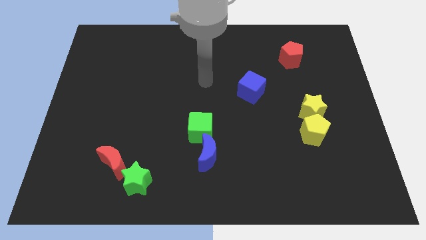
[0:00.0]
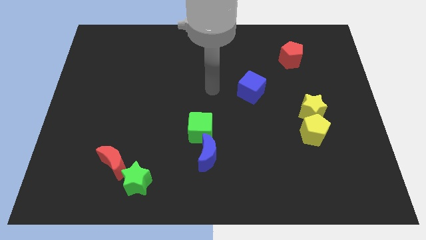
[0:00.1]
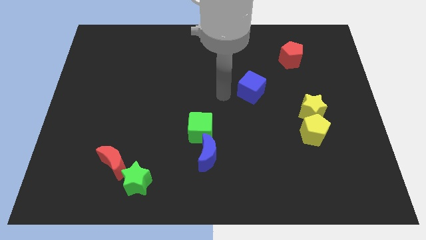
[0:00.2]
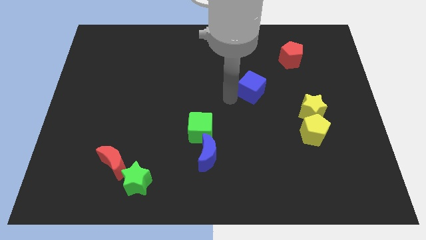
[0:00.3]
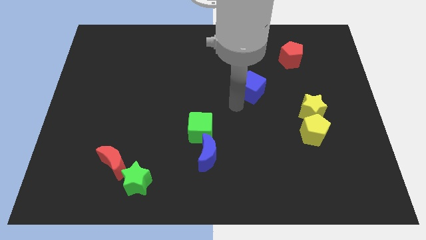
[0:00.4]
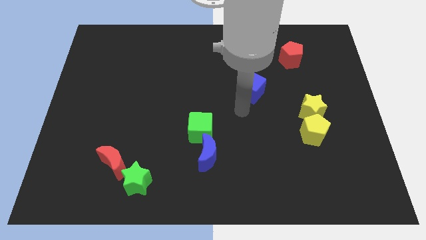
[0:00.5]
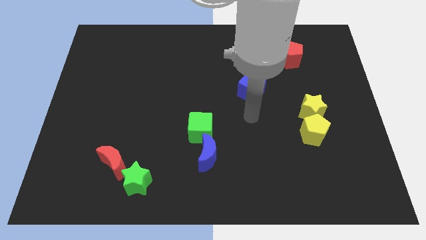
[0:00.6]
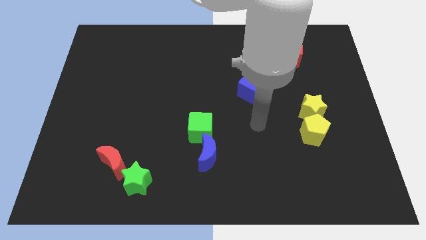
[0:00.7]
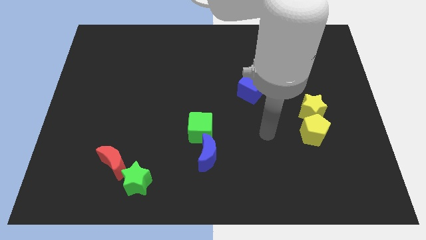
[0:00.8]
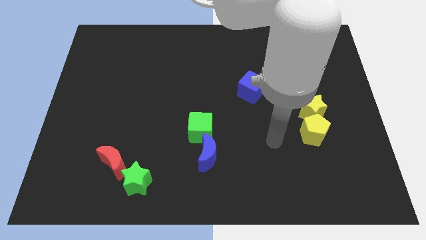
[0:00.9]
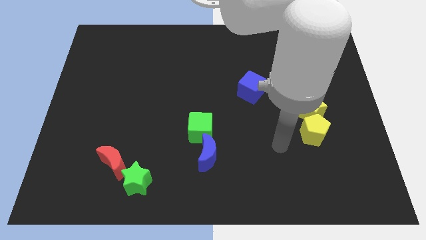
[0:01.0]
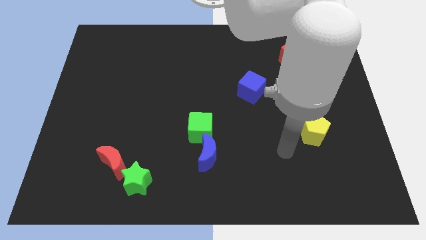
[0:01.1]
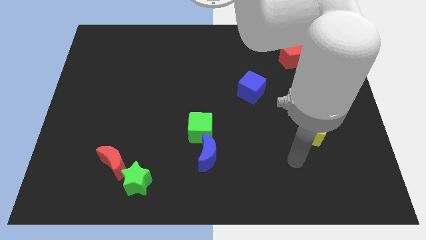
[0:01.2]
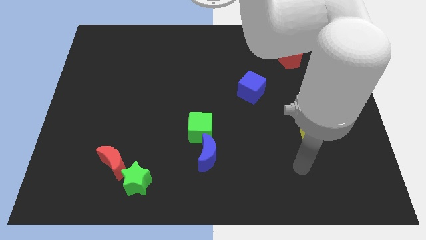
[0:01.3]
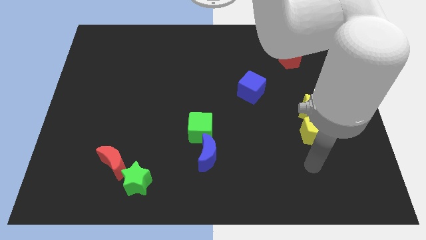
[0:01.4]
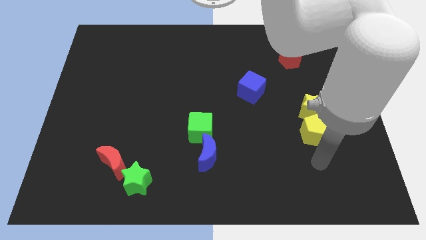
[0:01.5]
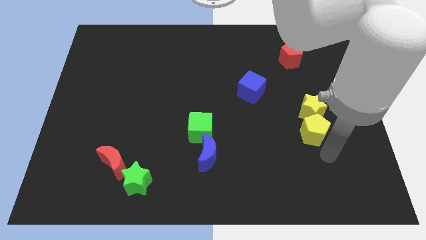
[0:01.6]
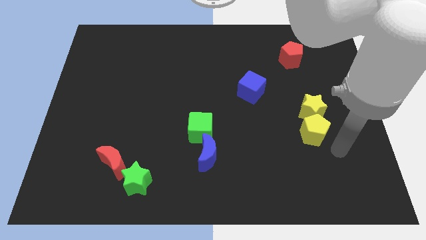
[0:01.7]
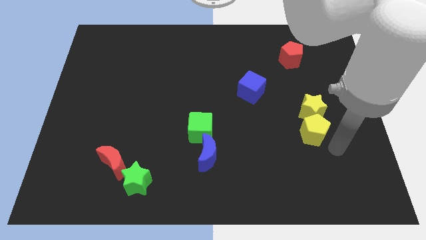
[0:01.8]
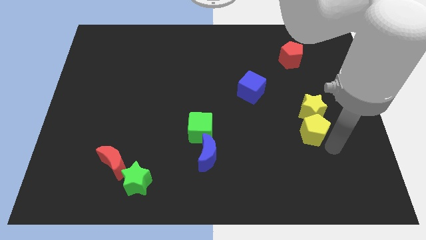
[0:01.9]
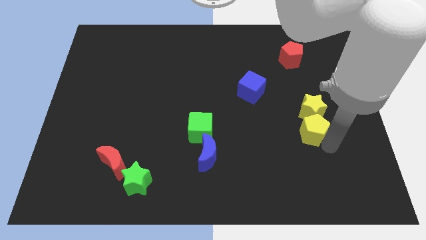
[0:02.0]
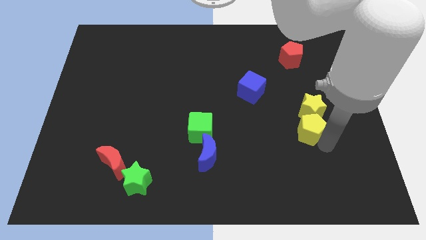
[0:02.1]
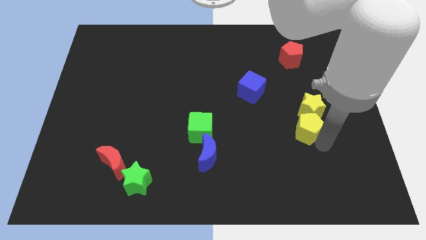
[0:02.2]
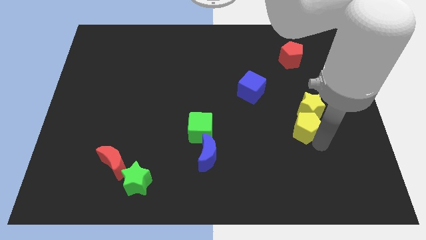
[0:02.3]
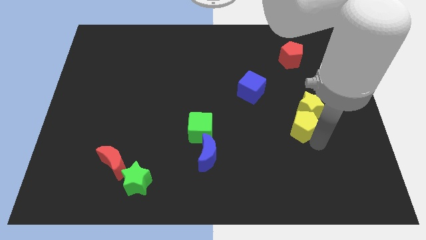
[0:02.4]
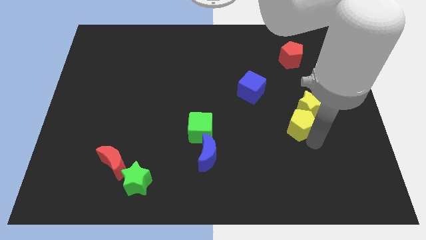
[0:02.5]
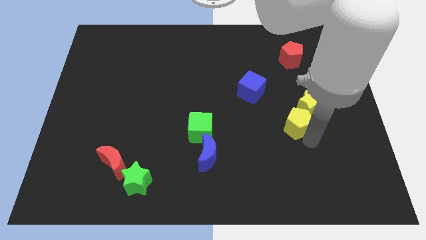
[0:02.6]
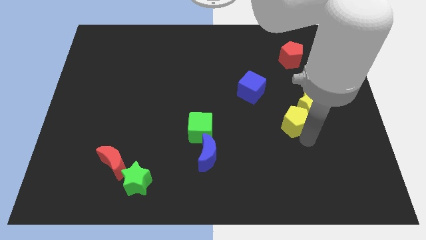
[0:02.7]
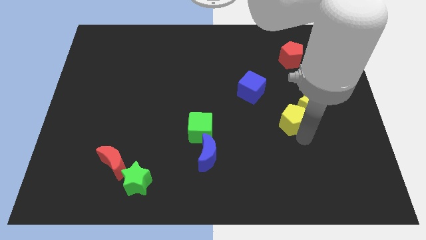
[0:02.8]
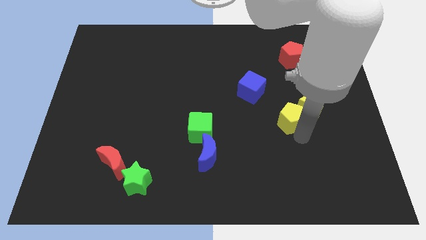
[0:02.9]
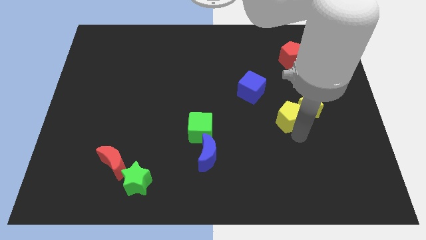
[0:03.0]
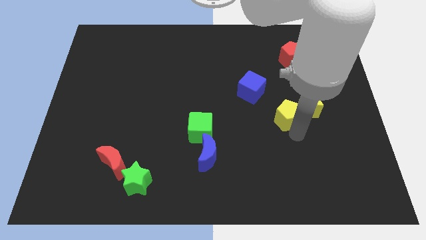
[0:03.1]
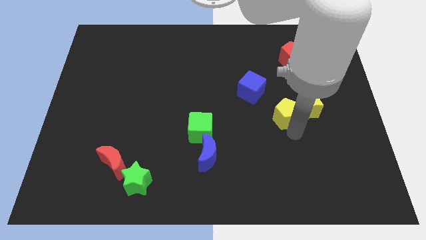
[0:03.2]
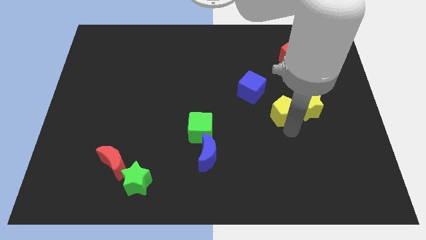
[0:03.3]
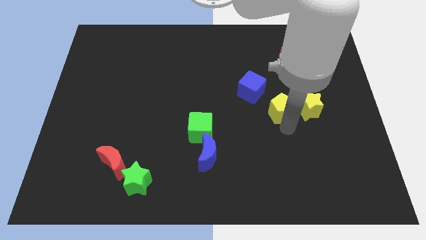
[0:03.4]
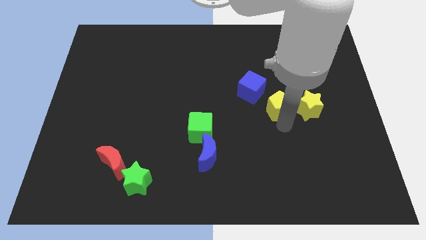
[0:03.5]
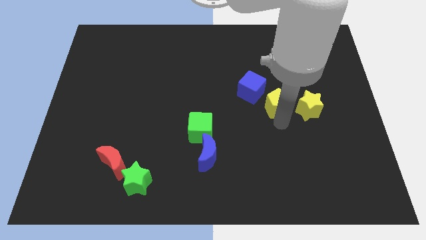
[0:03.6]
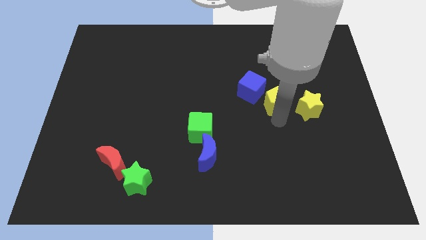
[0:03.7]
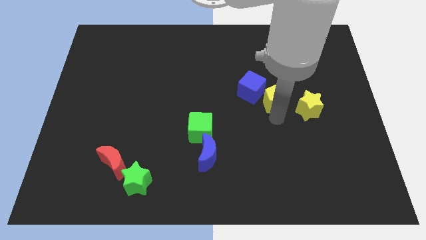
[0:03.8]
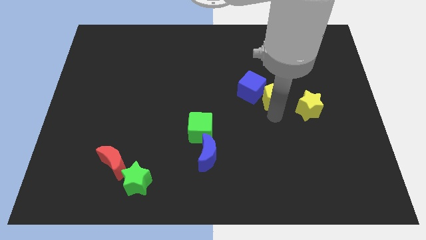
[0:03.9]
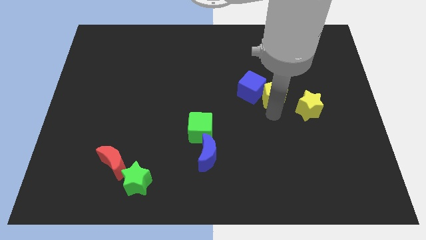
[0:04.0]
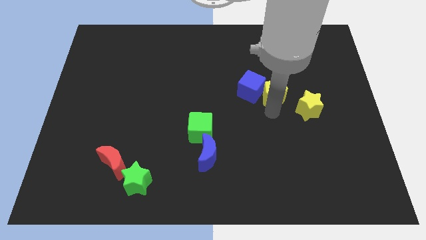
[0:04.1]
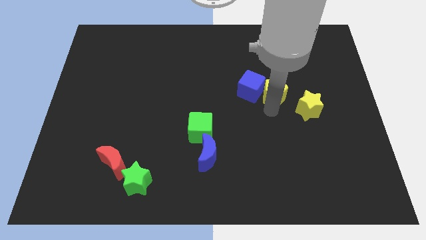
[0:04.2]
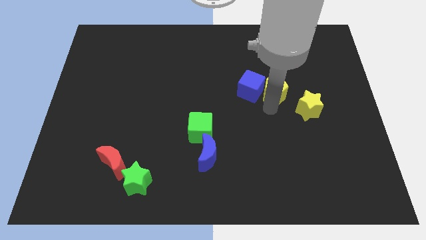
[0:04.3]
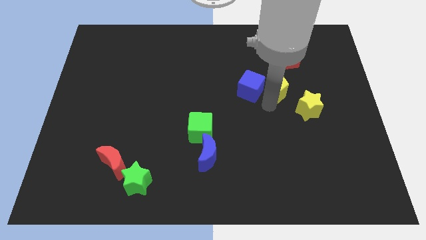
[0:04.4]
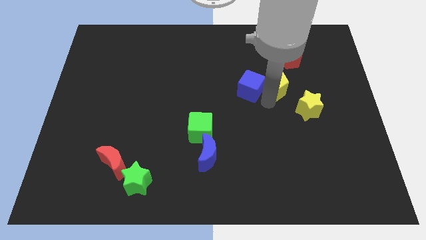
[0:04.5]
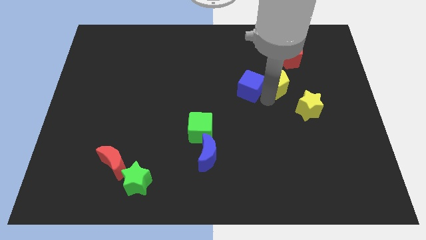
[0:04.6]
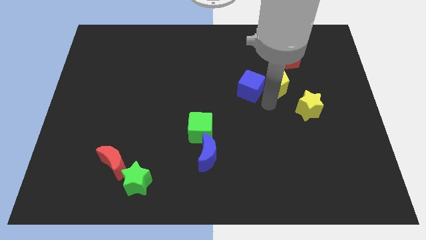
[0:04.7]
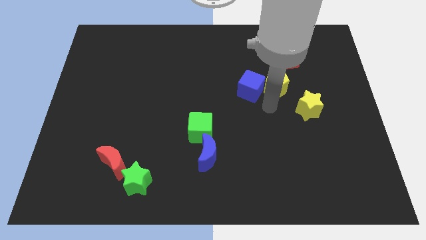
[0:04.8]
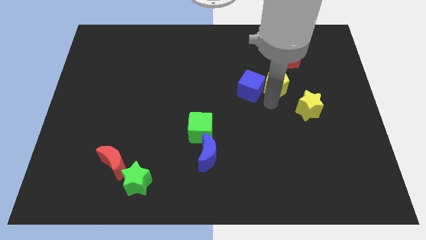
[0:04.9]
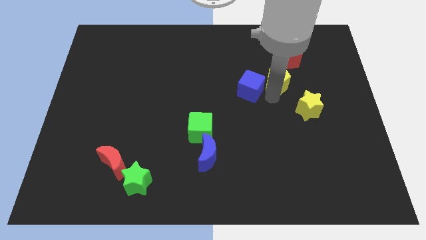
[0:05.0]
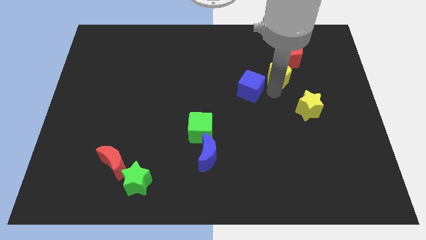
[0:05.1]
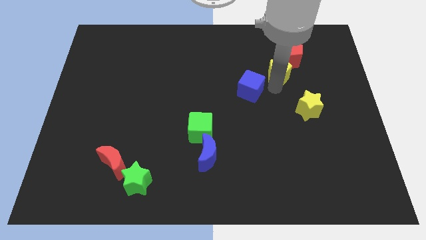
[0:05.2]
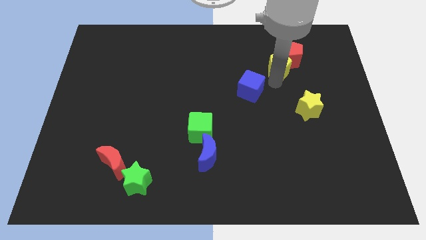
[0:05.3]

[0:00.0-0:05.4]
move the yellow pentagon next to the red pentagon

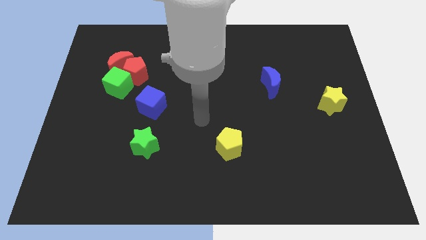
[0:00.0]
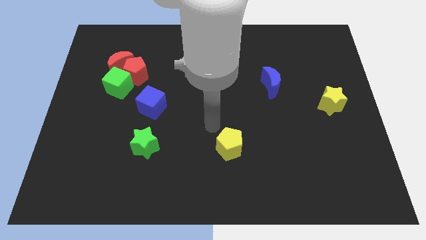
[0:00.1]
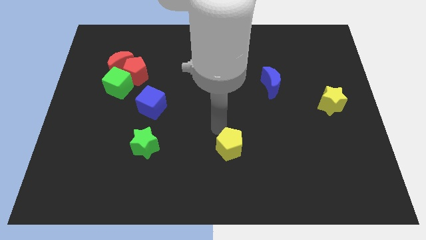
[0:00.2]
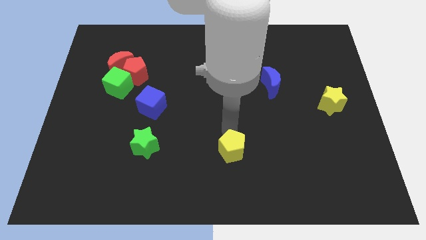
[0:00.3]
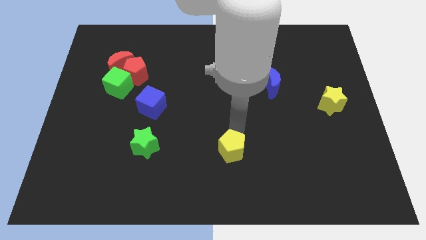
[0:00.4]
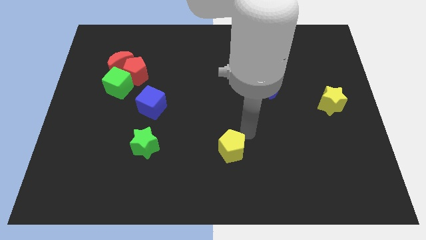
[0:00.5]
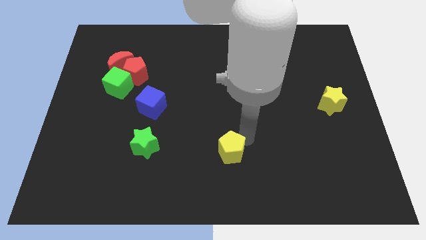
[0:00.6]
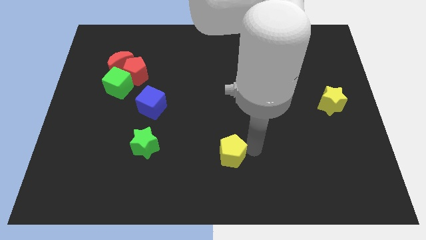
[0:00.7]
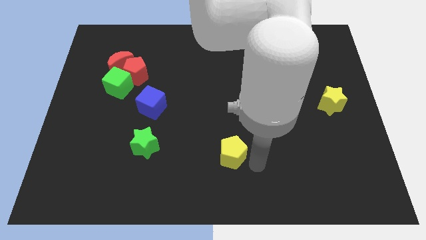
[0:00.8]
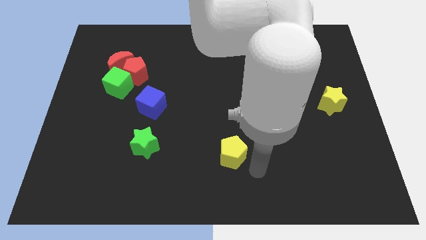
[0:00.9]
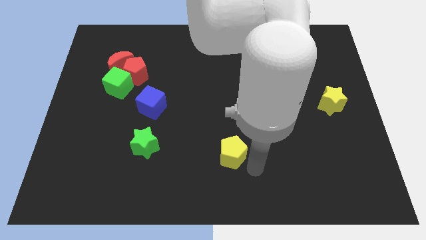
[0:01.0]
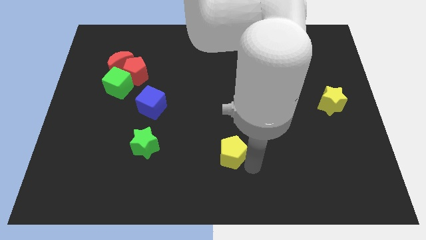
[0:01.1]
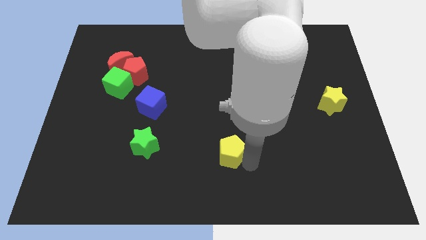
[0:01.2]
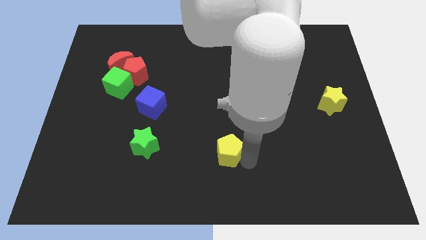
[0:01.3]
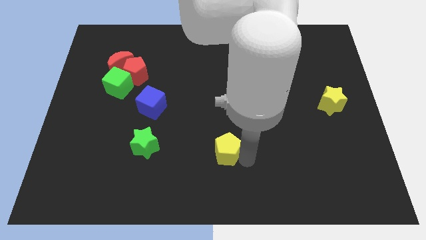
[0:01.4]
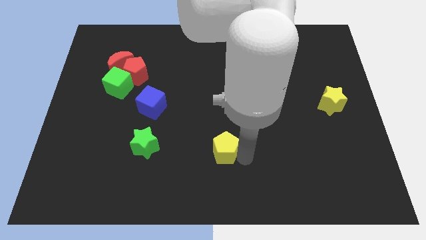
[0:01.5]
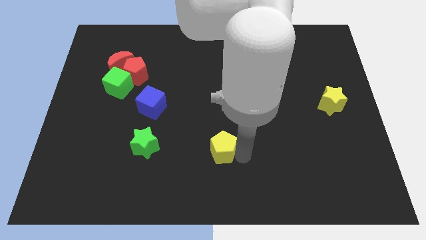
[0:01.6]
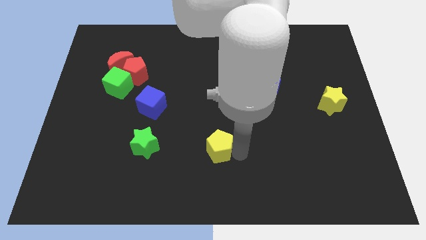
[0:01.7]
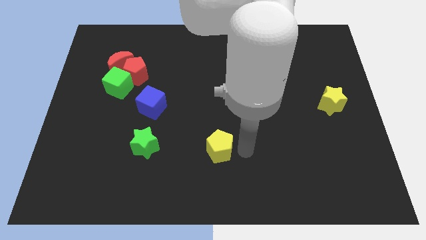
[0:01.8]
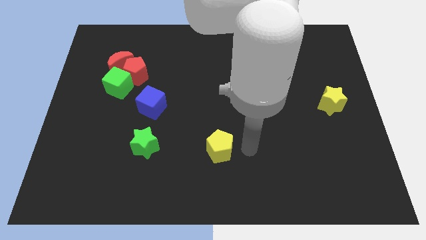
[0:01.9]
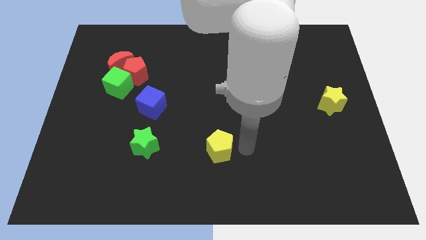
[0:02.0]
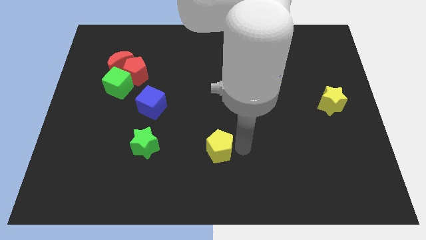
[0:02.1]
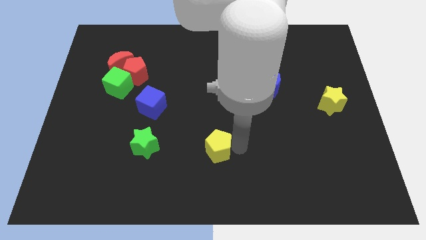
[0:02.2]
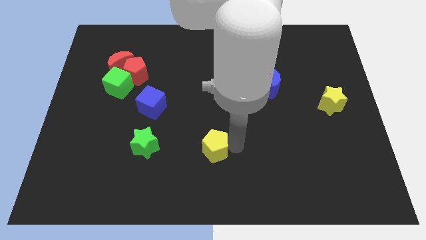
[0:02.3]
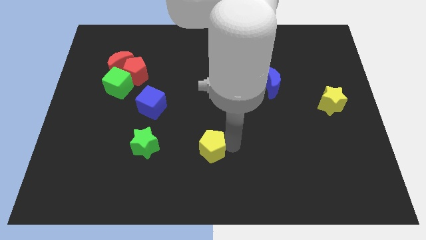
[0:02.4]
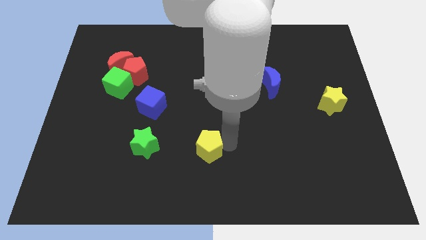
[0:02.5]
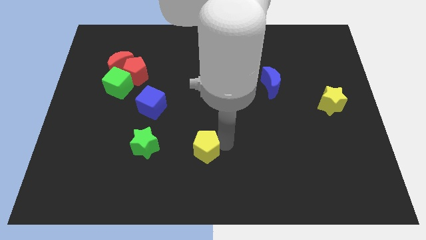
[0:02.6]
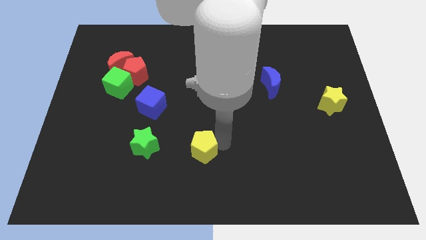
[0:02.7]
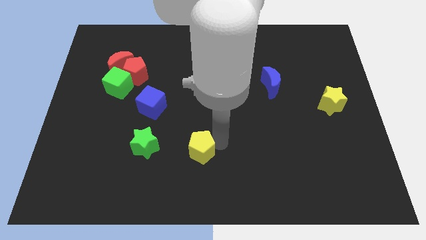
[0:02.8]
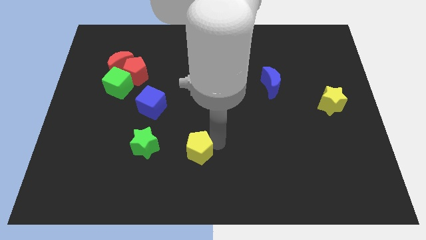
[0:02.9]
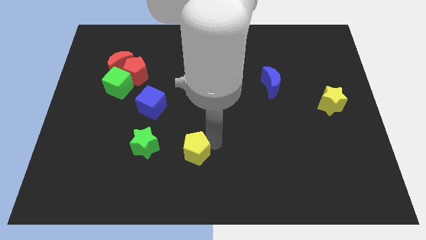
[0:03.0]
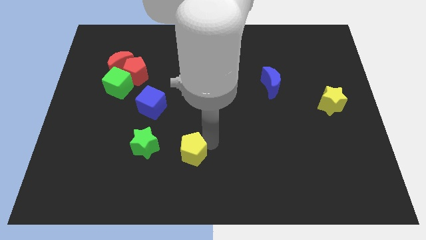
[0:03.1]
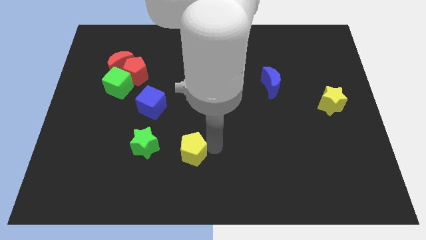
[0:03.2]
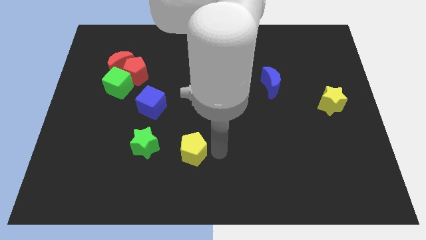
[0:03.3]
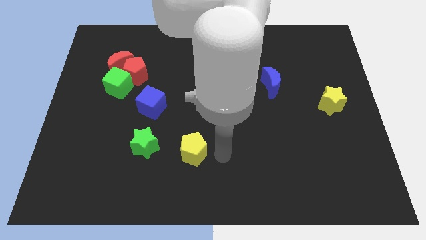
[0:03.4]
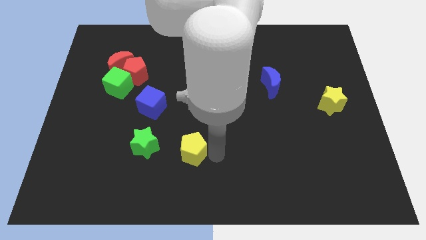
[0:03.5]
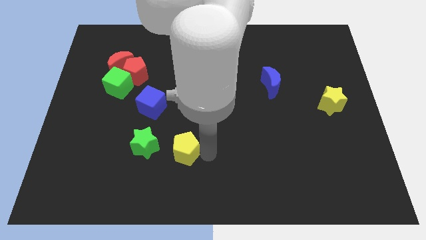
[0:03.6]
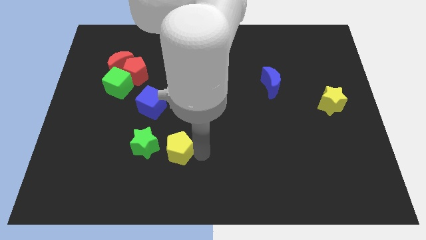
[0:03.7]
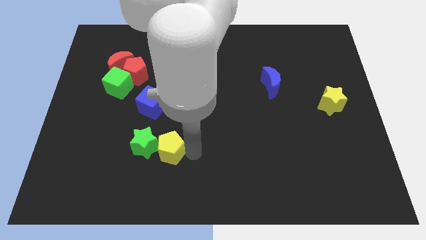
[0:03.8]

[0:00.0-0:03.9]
slide the yellow pentagon to the green star
